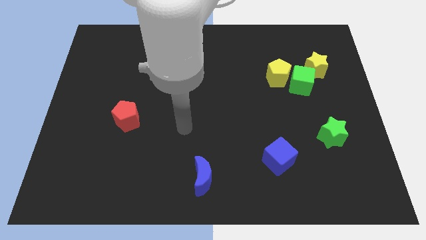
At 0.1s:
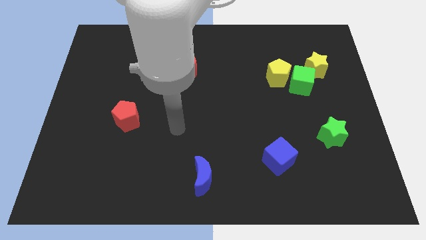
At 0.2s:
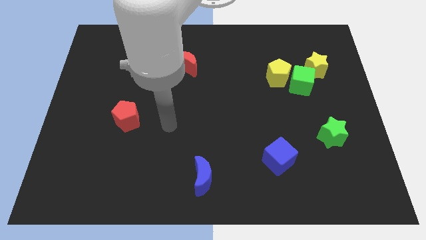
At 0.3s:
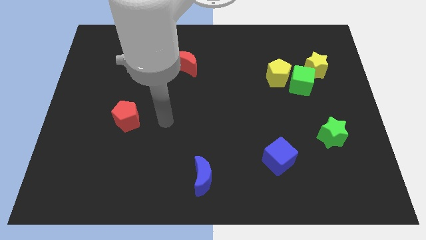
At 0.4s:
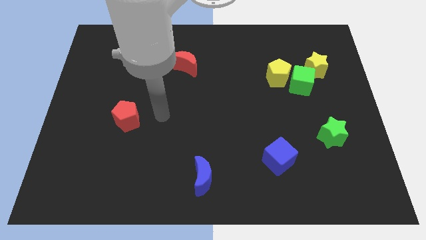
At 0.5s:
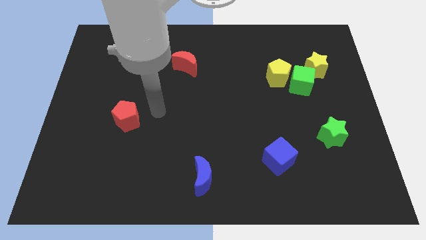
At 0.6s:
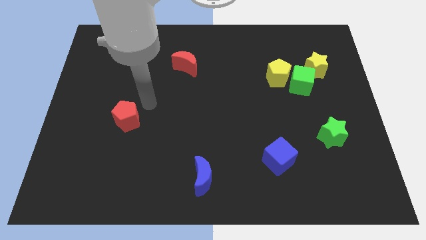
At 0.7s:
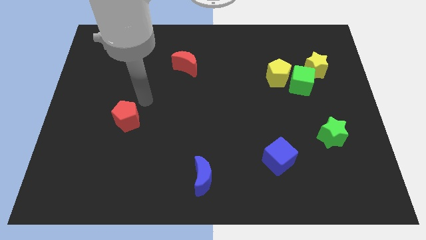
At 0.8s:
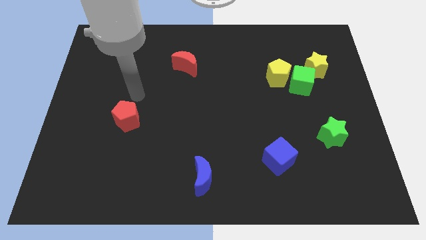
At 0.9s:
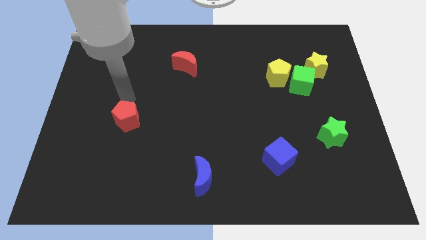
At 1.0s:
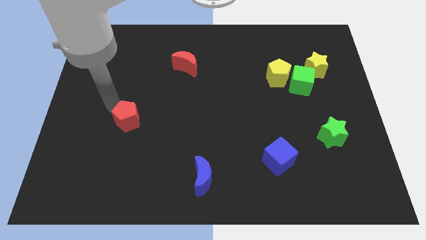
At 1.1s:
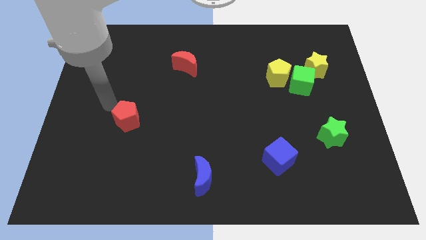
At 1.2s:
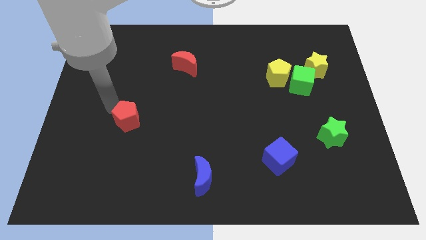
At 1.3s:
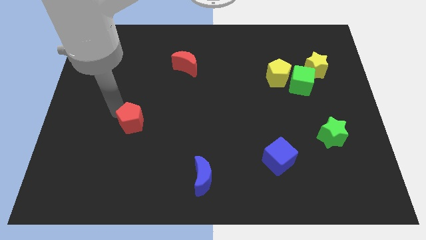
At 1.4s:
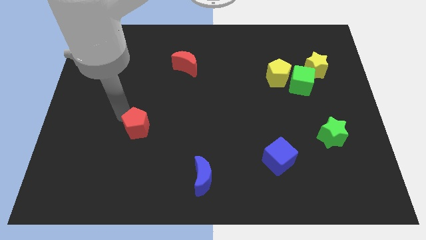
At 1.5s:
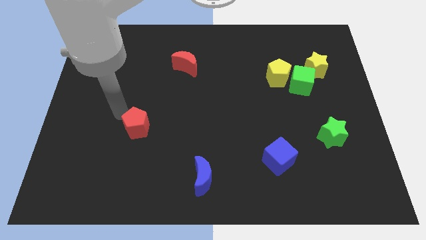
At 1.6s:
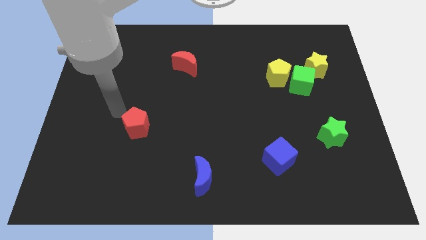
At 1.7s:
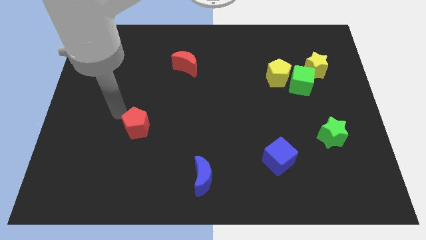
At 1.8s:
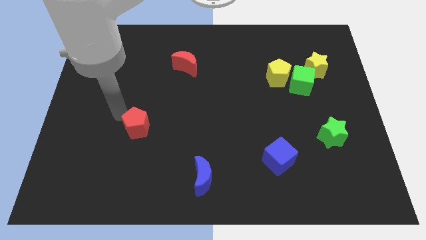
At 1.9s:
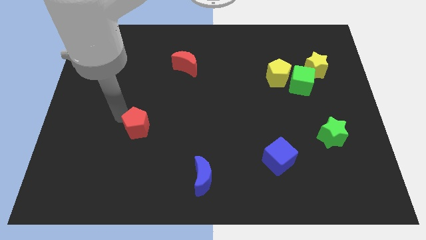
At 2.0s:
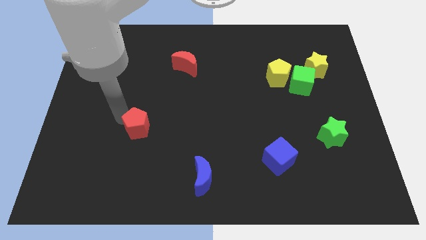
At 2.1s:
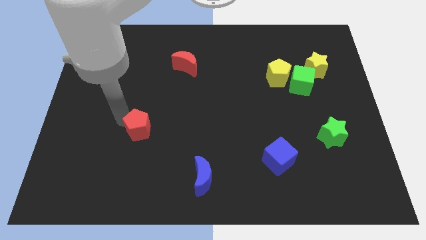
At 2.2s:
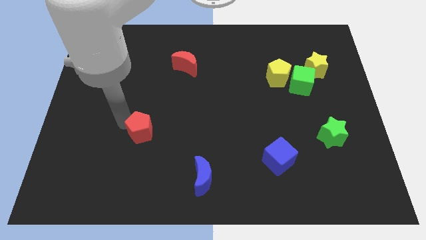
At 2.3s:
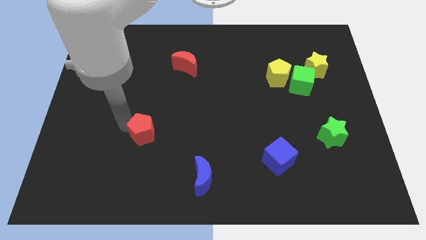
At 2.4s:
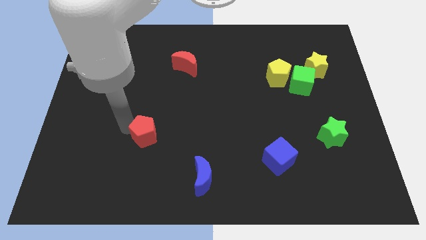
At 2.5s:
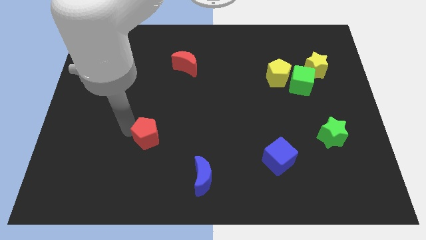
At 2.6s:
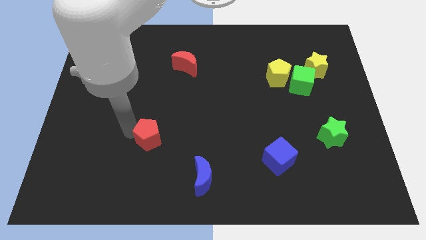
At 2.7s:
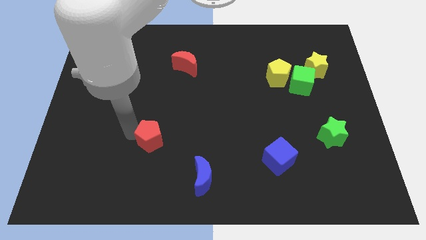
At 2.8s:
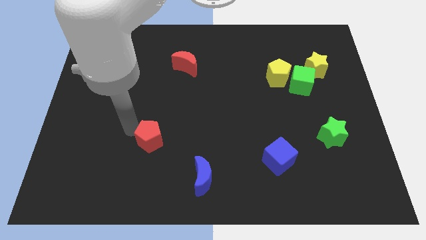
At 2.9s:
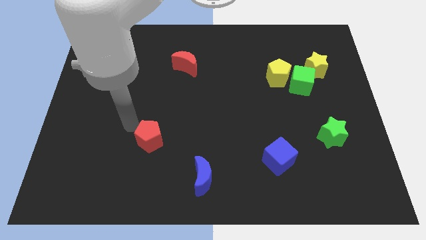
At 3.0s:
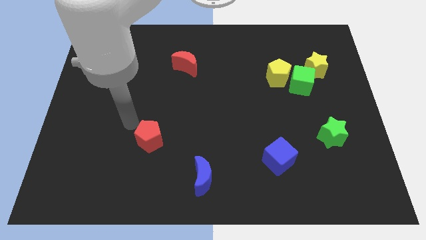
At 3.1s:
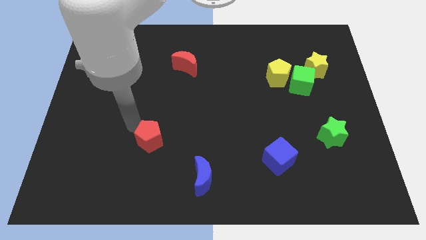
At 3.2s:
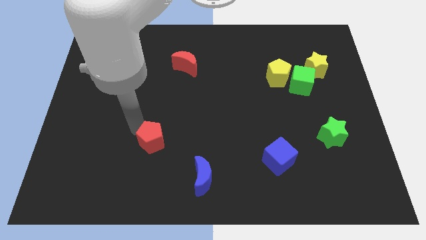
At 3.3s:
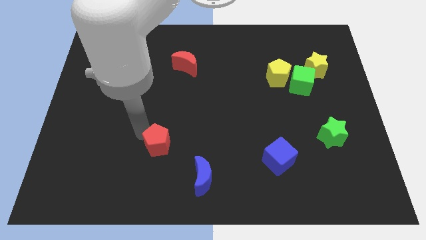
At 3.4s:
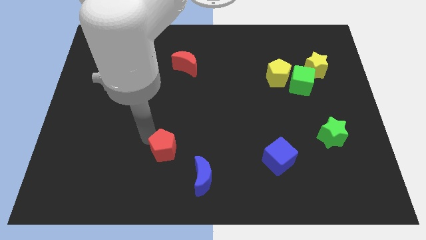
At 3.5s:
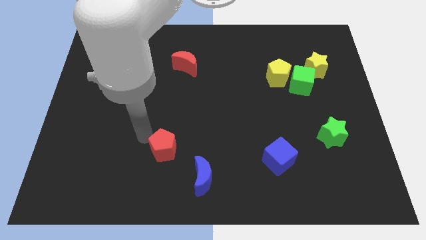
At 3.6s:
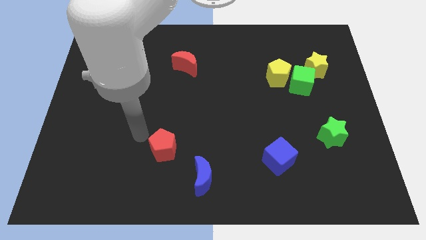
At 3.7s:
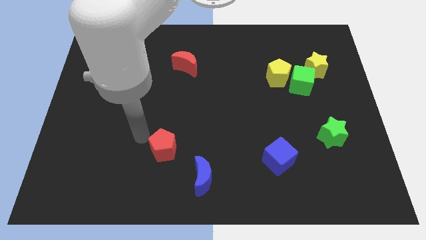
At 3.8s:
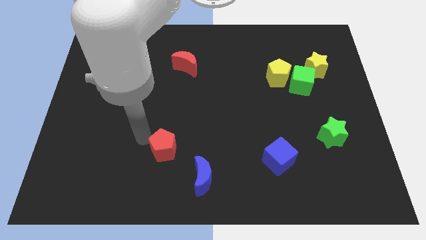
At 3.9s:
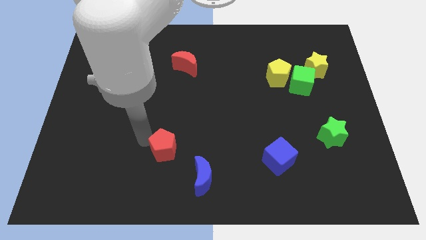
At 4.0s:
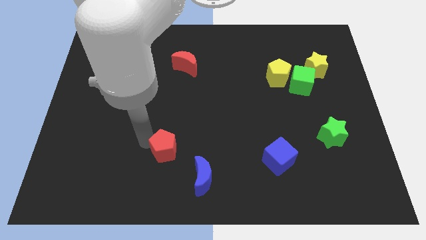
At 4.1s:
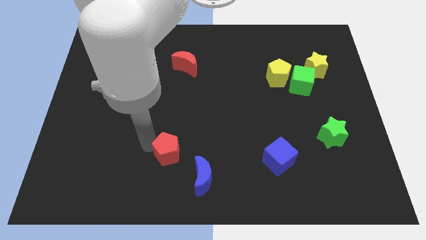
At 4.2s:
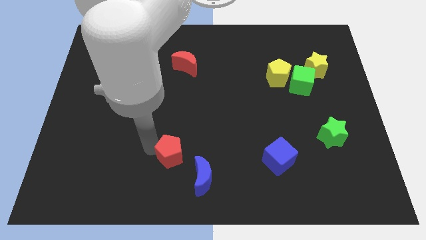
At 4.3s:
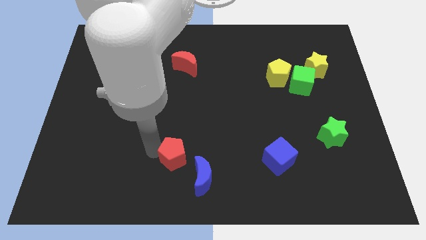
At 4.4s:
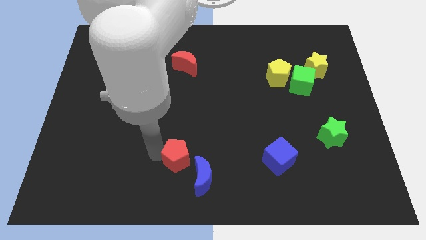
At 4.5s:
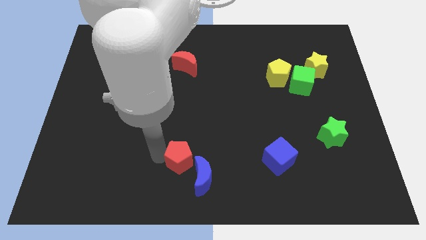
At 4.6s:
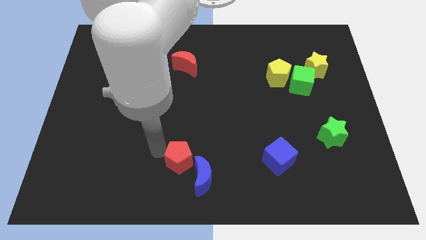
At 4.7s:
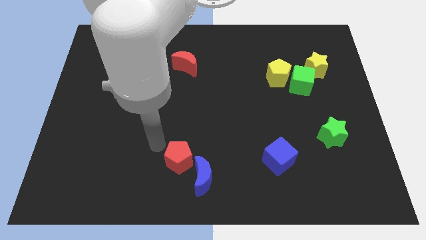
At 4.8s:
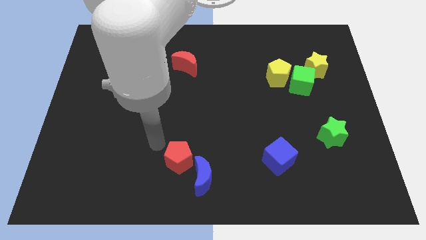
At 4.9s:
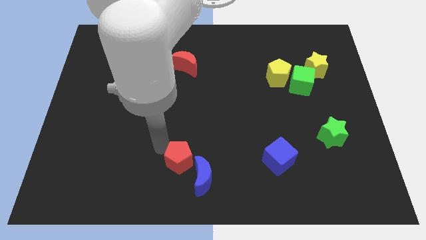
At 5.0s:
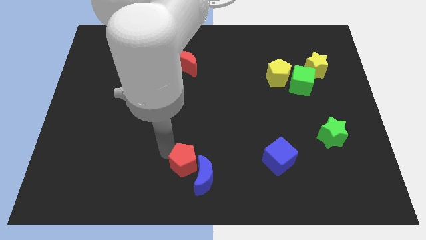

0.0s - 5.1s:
push the red pentagon towards the blue moon

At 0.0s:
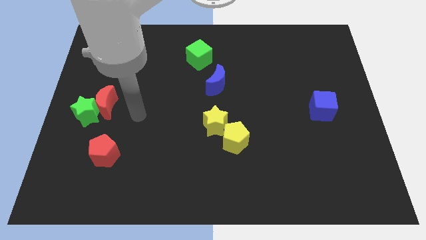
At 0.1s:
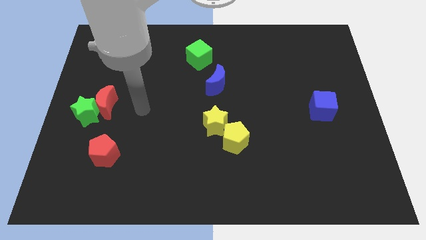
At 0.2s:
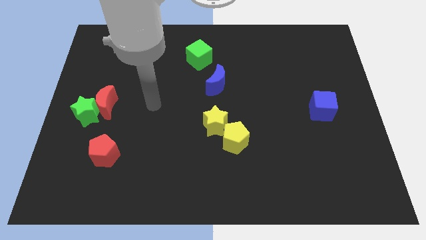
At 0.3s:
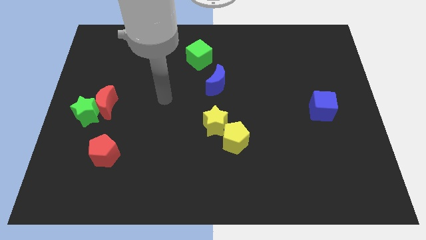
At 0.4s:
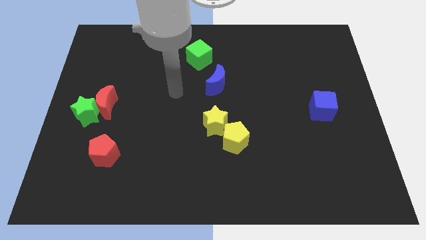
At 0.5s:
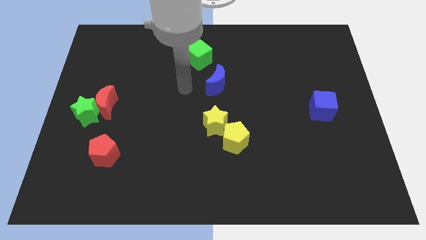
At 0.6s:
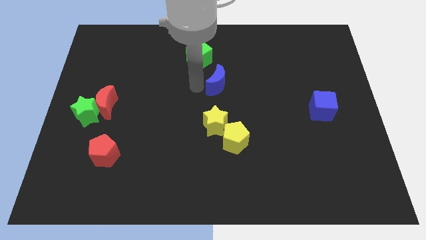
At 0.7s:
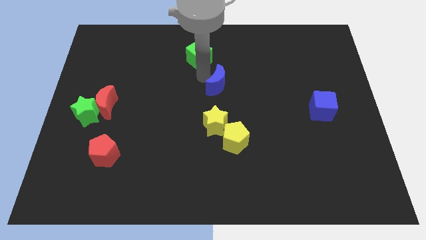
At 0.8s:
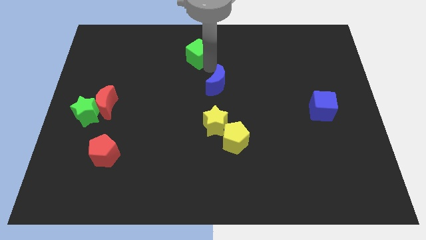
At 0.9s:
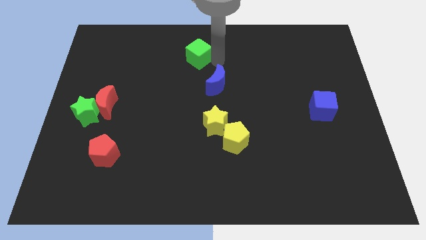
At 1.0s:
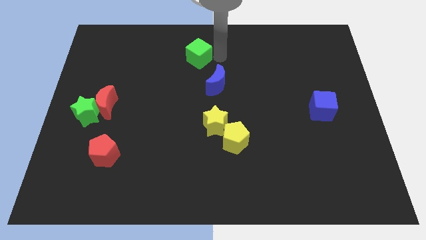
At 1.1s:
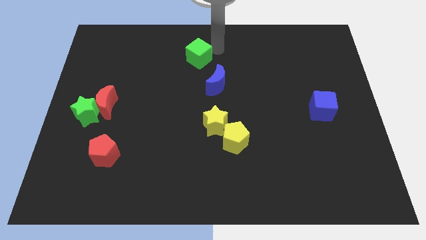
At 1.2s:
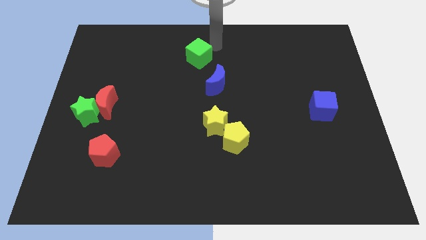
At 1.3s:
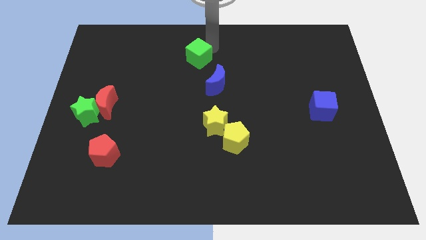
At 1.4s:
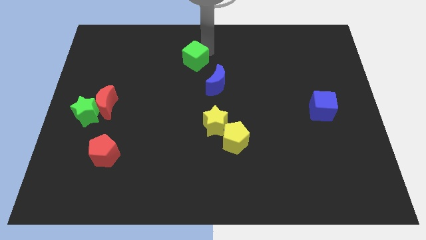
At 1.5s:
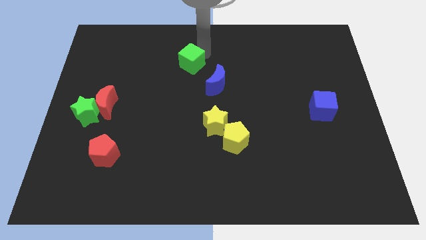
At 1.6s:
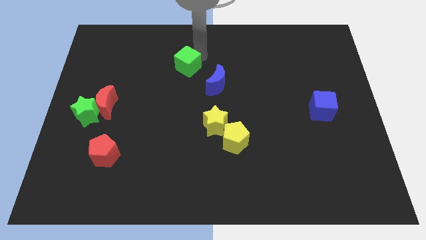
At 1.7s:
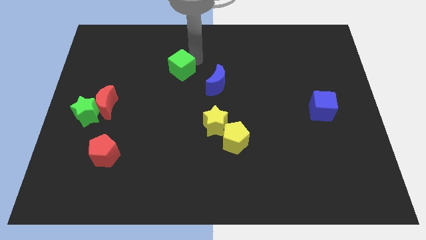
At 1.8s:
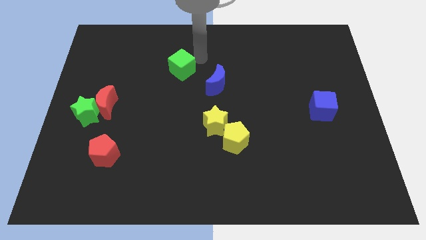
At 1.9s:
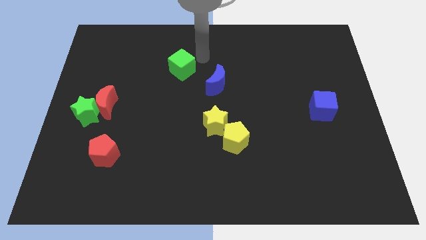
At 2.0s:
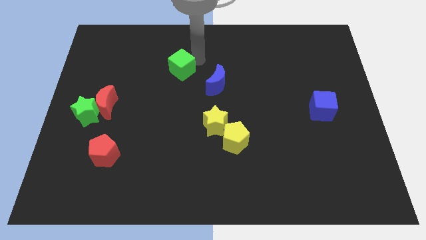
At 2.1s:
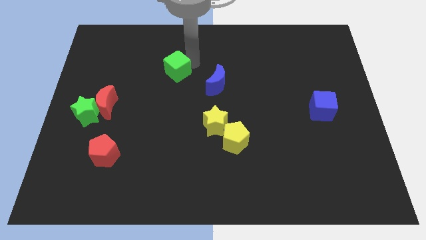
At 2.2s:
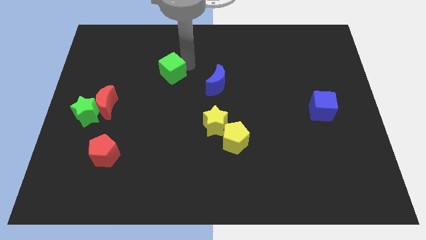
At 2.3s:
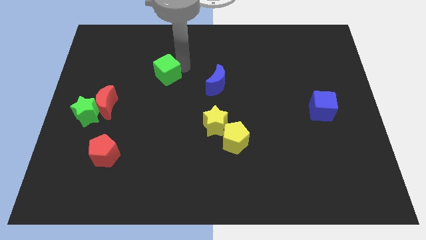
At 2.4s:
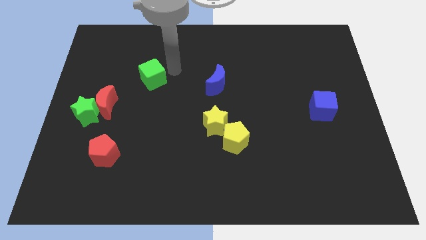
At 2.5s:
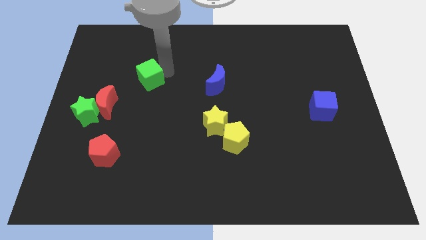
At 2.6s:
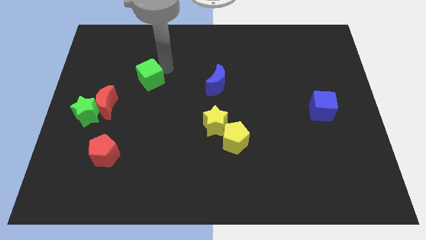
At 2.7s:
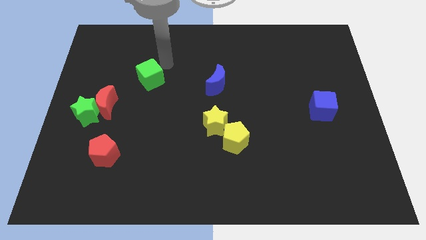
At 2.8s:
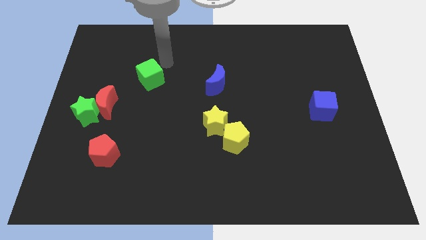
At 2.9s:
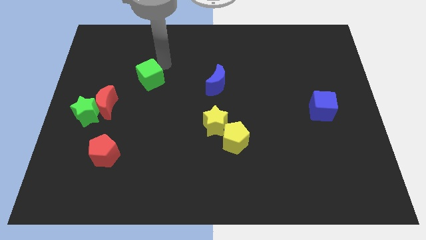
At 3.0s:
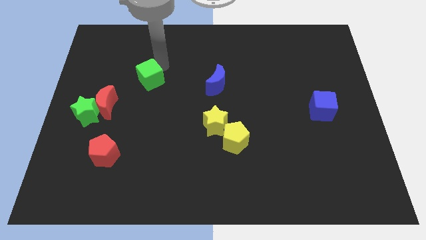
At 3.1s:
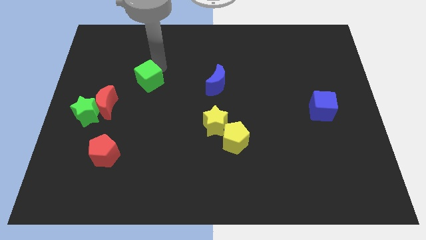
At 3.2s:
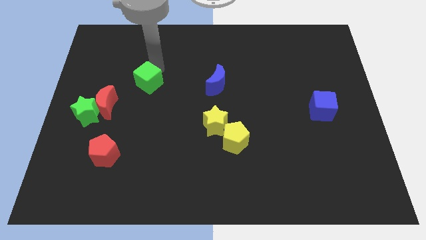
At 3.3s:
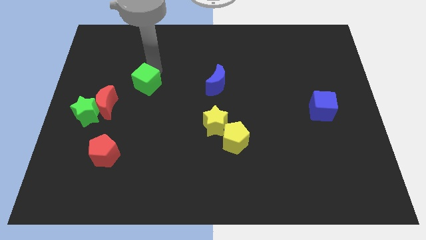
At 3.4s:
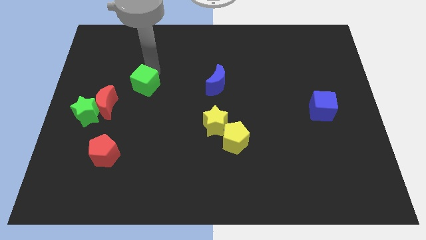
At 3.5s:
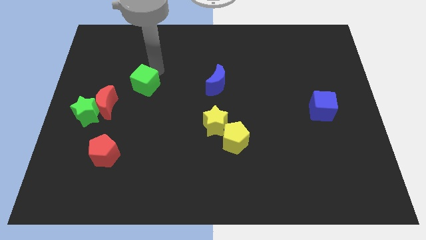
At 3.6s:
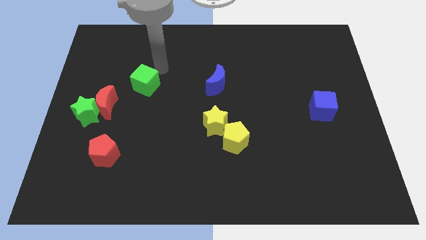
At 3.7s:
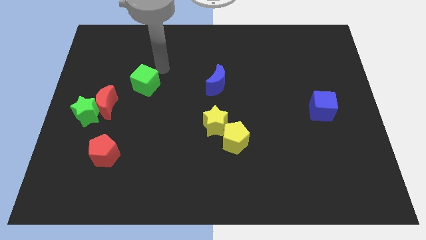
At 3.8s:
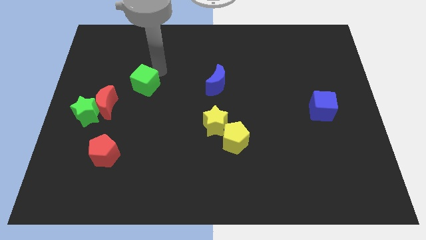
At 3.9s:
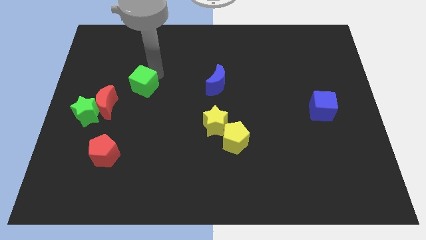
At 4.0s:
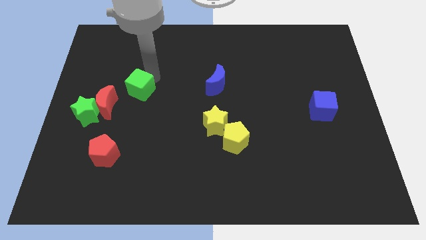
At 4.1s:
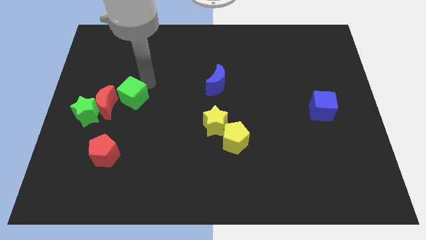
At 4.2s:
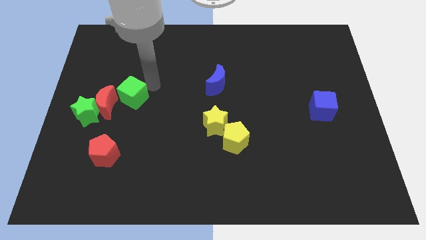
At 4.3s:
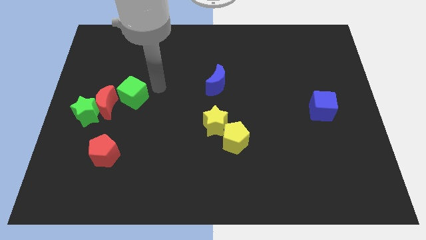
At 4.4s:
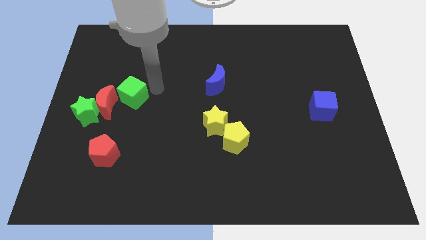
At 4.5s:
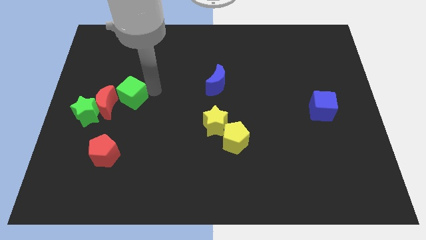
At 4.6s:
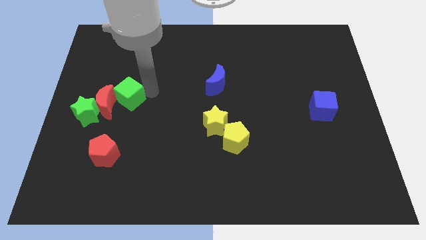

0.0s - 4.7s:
put the green cube towards the red moon
